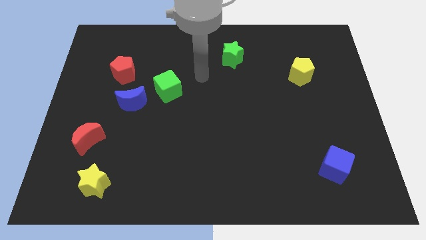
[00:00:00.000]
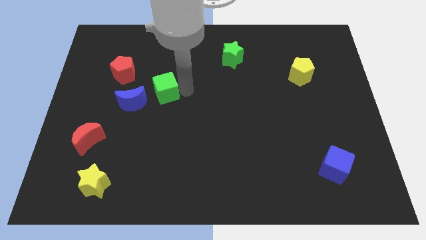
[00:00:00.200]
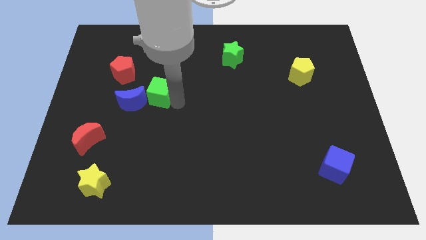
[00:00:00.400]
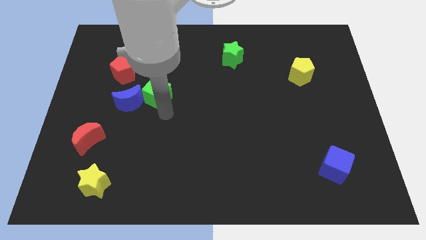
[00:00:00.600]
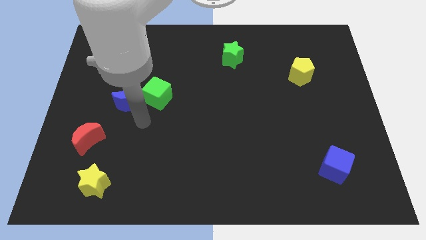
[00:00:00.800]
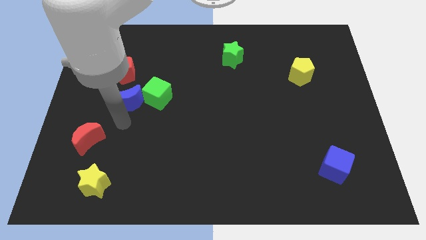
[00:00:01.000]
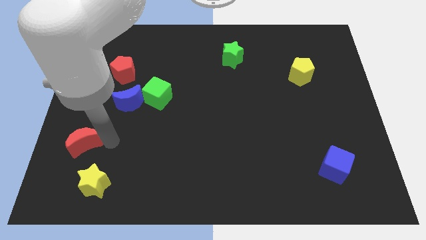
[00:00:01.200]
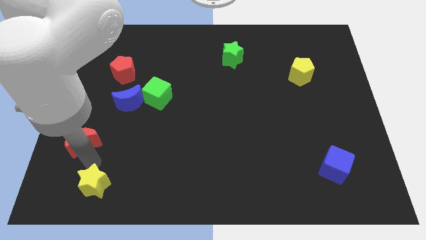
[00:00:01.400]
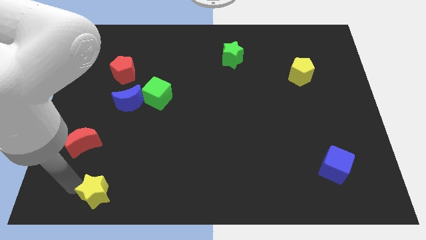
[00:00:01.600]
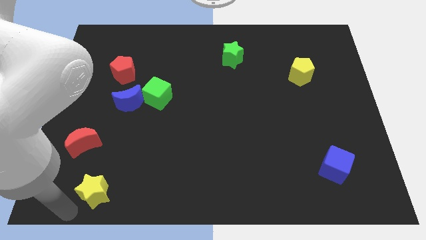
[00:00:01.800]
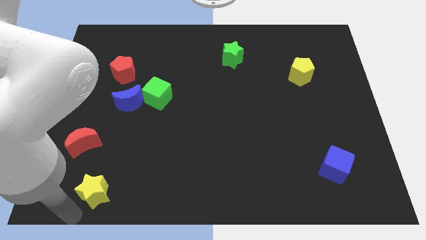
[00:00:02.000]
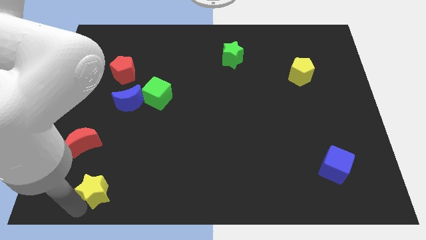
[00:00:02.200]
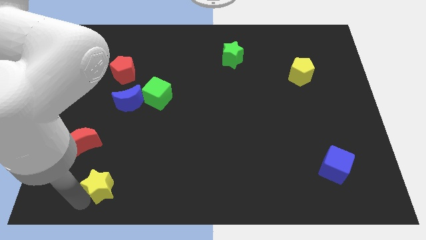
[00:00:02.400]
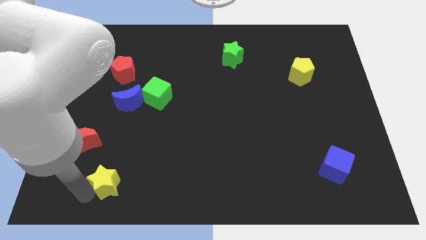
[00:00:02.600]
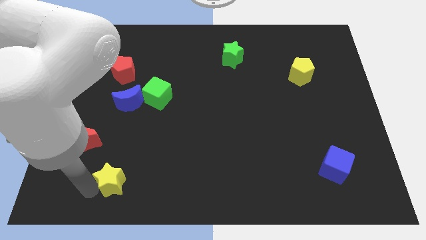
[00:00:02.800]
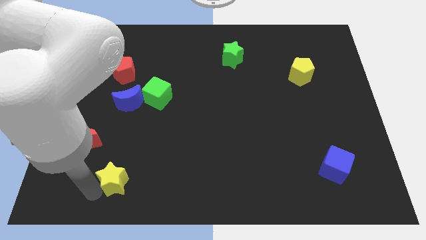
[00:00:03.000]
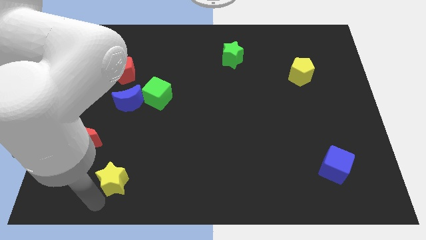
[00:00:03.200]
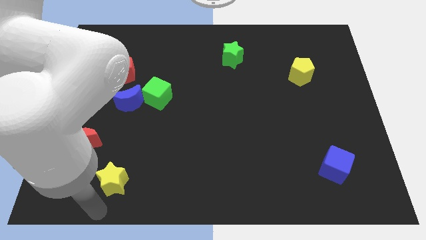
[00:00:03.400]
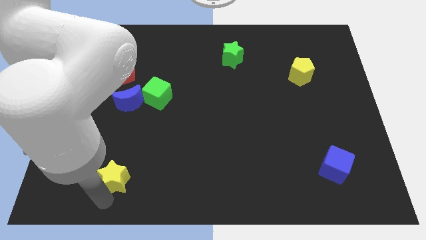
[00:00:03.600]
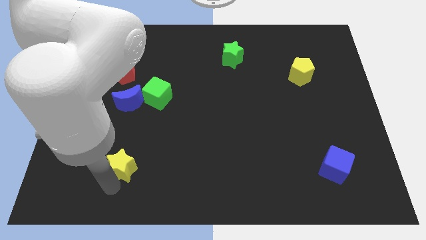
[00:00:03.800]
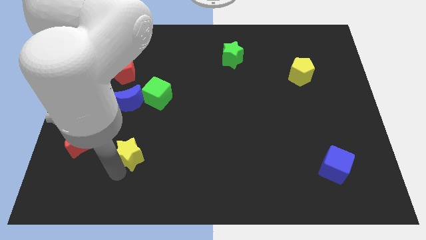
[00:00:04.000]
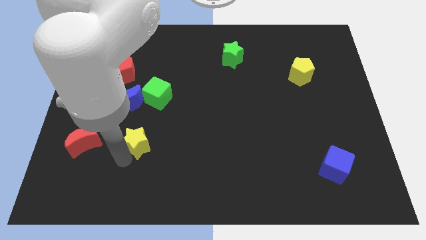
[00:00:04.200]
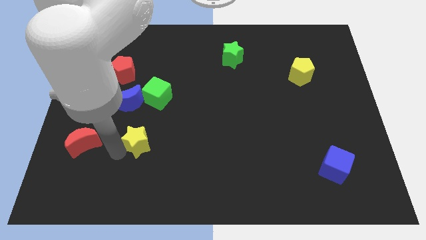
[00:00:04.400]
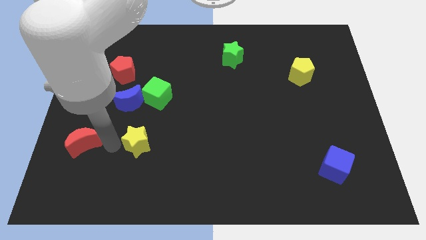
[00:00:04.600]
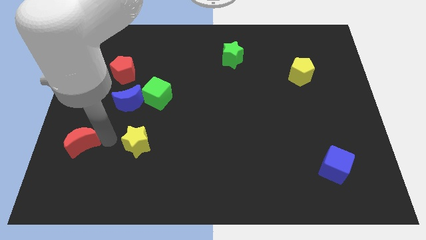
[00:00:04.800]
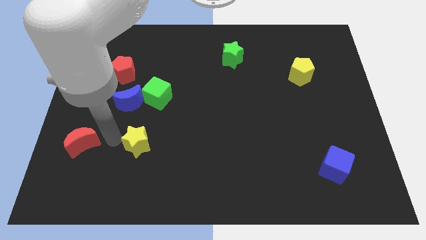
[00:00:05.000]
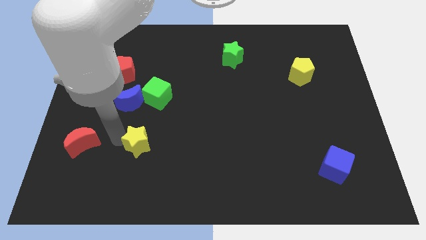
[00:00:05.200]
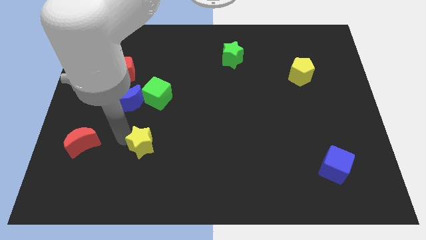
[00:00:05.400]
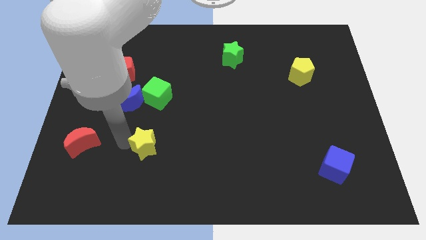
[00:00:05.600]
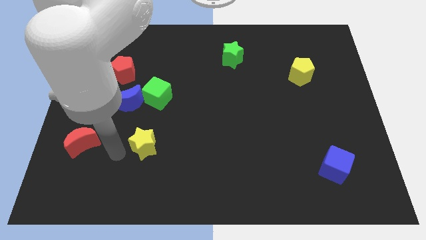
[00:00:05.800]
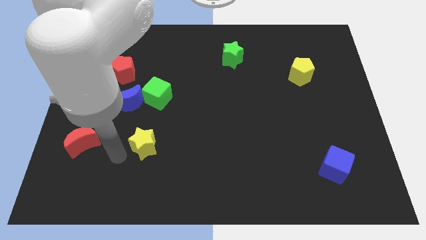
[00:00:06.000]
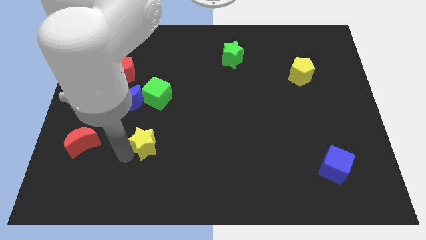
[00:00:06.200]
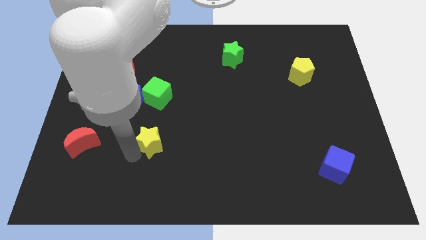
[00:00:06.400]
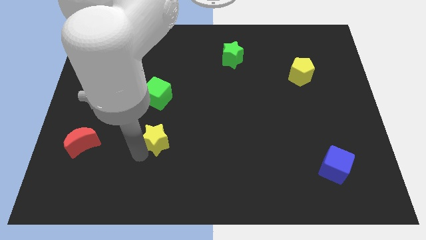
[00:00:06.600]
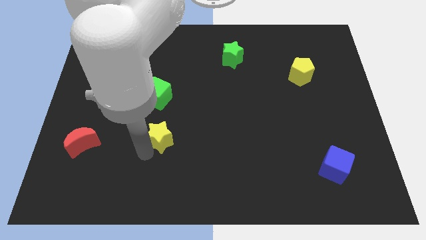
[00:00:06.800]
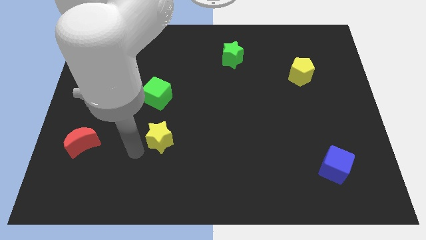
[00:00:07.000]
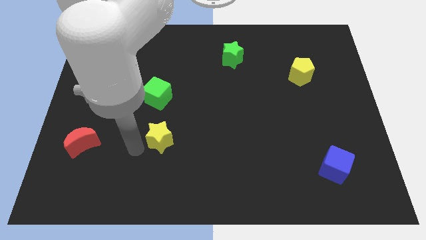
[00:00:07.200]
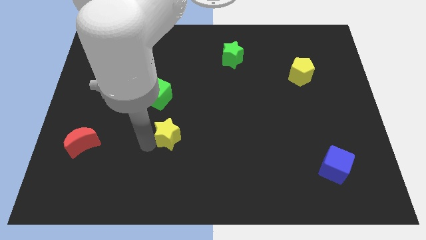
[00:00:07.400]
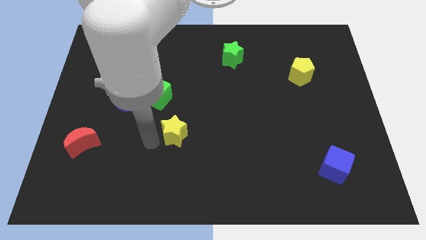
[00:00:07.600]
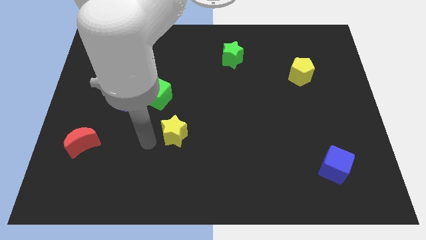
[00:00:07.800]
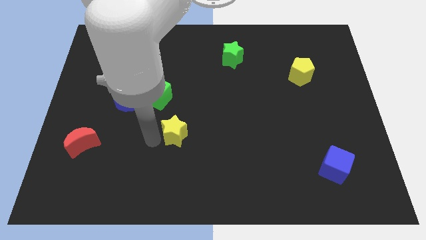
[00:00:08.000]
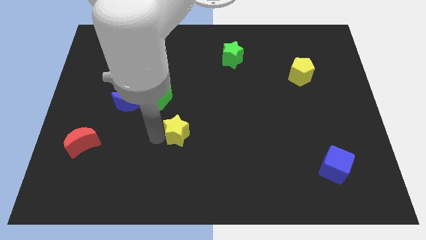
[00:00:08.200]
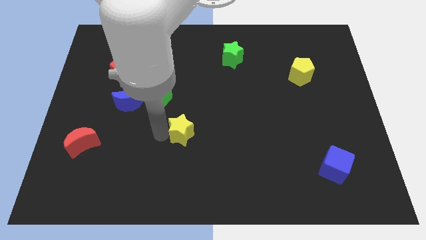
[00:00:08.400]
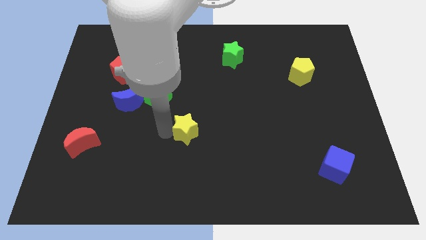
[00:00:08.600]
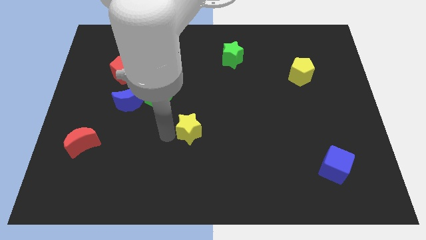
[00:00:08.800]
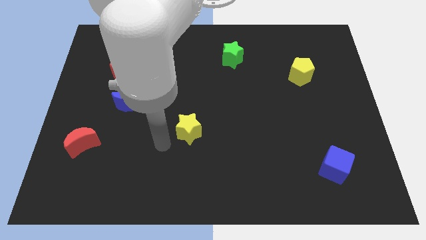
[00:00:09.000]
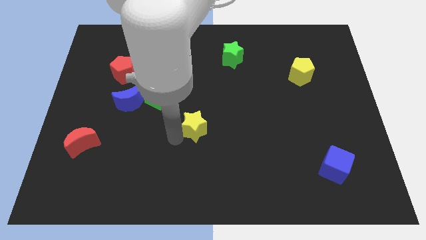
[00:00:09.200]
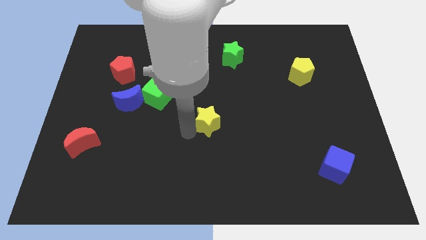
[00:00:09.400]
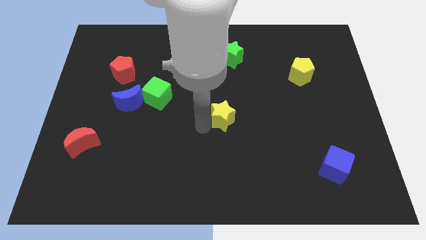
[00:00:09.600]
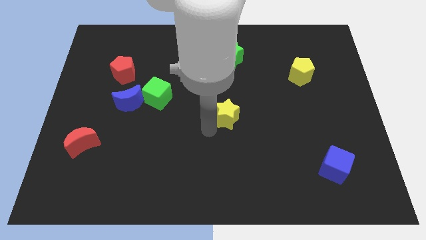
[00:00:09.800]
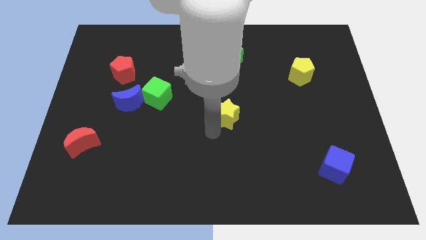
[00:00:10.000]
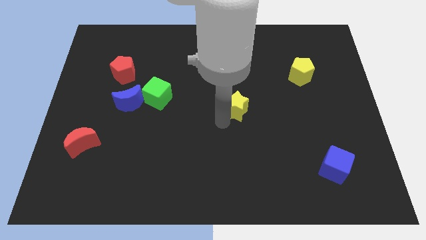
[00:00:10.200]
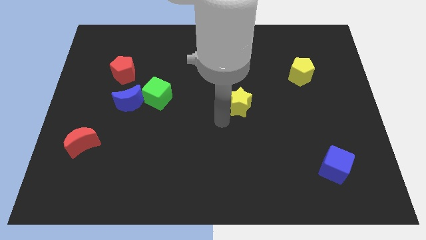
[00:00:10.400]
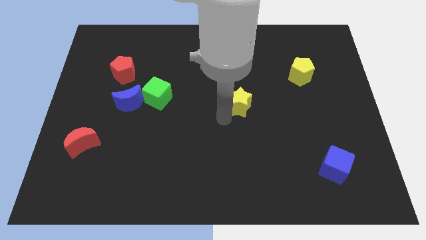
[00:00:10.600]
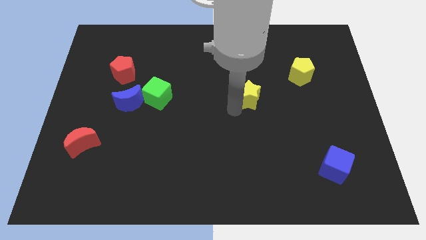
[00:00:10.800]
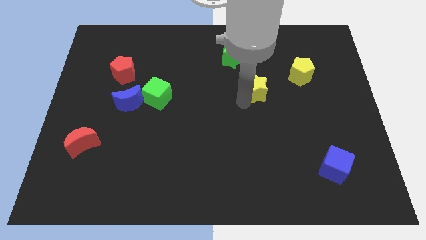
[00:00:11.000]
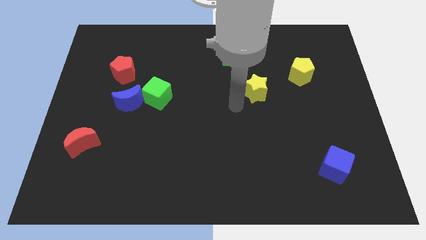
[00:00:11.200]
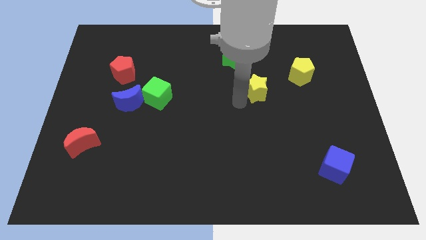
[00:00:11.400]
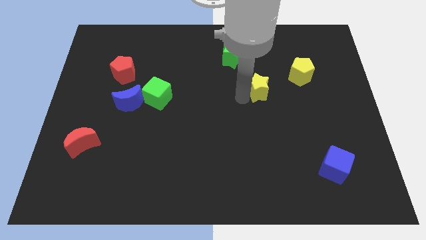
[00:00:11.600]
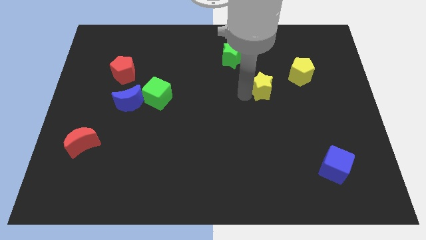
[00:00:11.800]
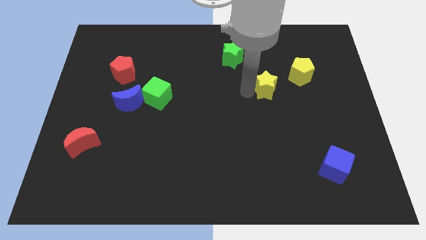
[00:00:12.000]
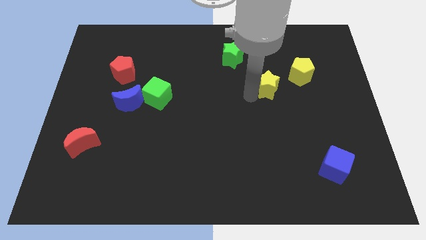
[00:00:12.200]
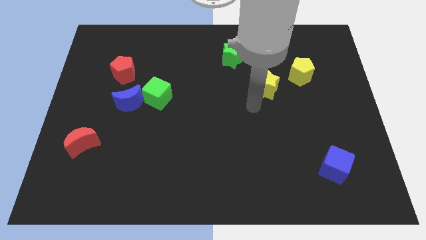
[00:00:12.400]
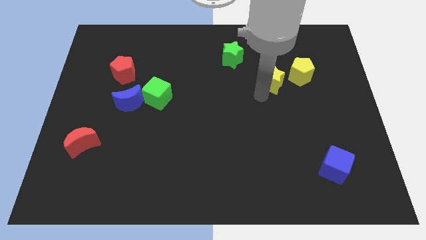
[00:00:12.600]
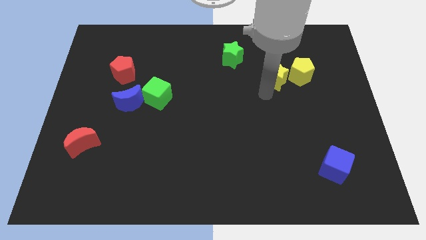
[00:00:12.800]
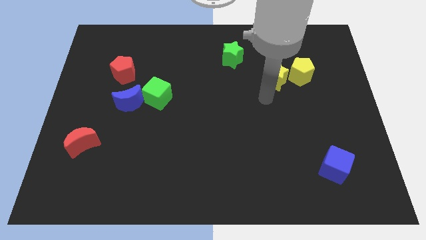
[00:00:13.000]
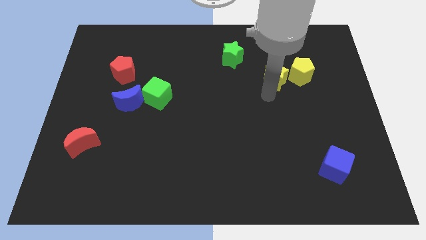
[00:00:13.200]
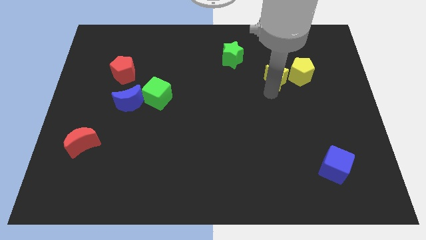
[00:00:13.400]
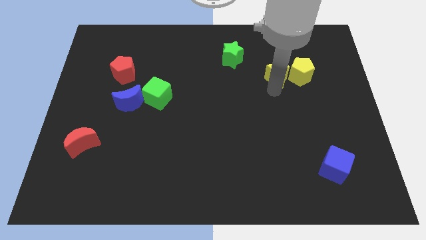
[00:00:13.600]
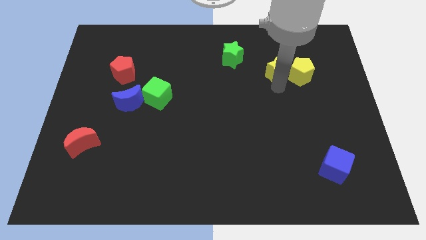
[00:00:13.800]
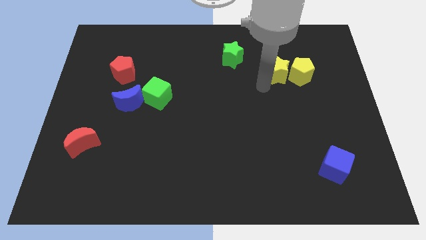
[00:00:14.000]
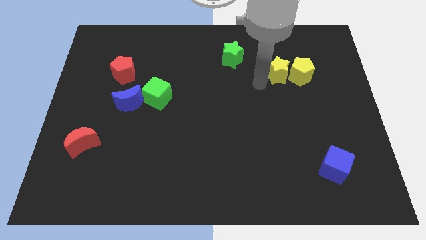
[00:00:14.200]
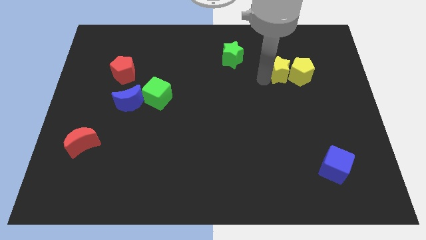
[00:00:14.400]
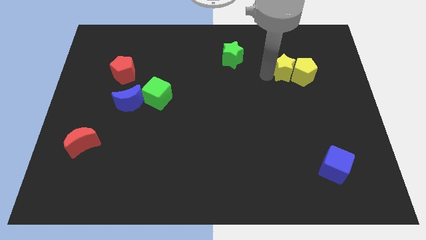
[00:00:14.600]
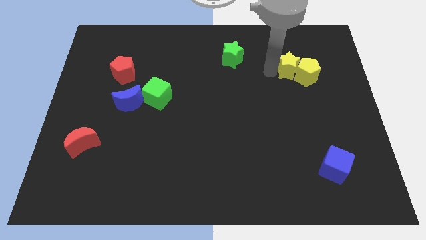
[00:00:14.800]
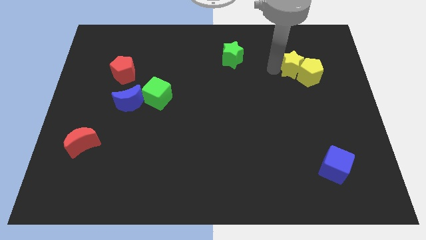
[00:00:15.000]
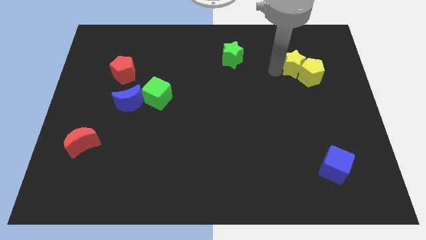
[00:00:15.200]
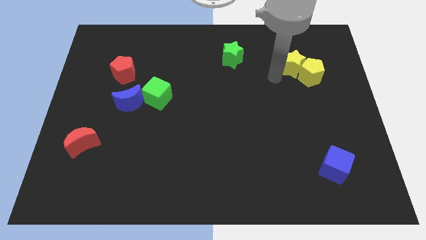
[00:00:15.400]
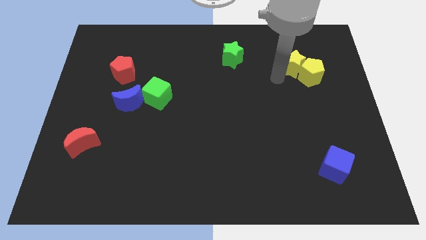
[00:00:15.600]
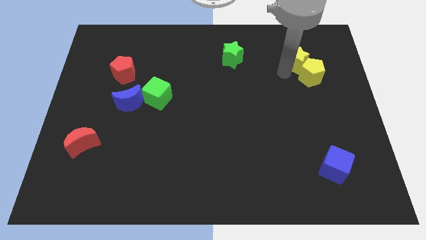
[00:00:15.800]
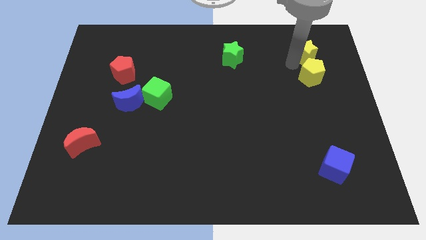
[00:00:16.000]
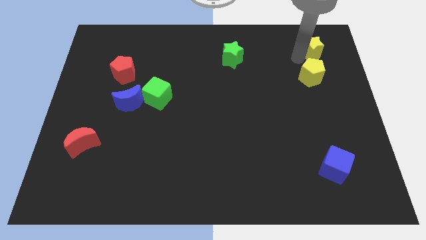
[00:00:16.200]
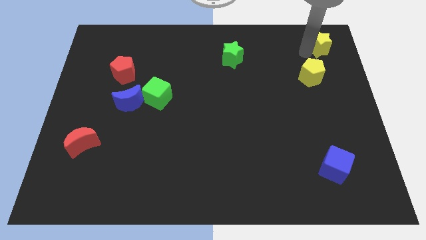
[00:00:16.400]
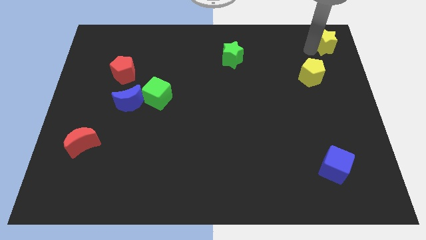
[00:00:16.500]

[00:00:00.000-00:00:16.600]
move the yellow star to the upper right corner
